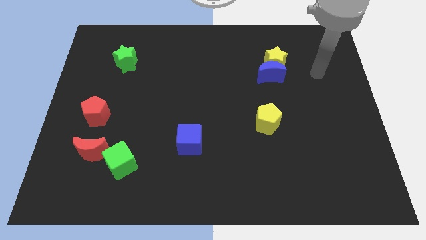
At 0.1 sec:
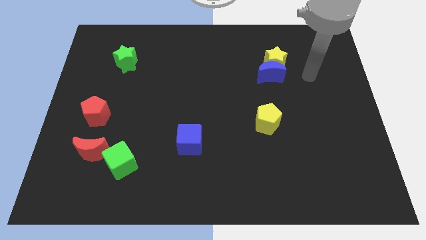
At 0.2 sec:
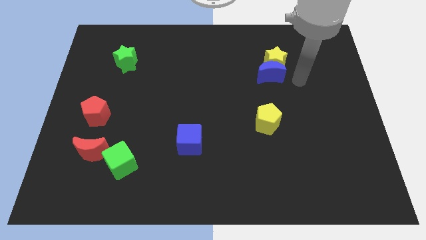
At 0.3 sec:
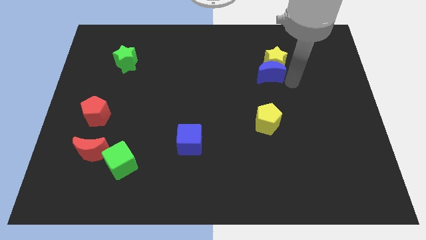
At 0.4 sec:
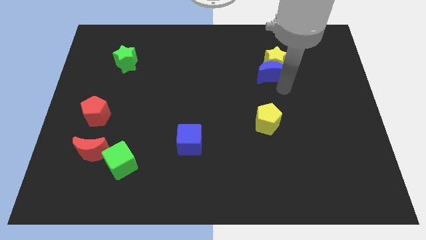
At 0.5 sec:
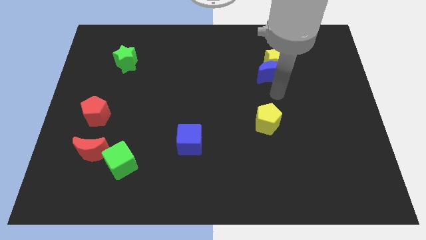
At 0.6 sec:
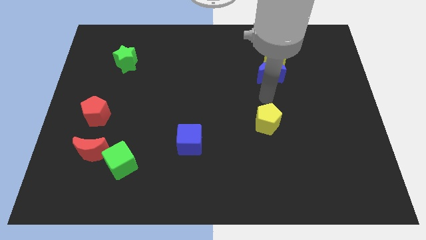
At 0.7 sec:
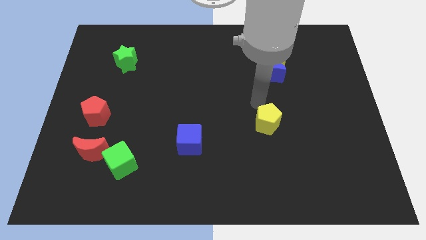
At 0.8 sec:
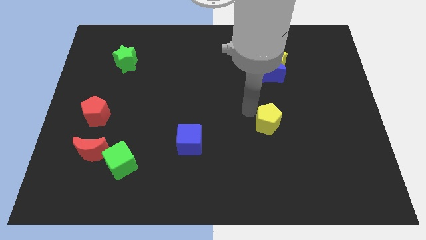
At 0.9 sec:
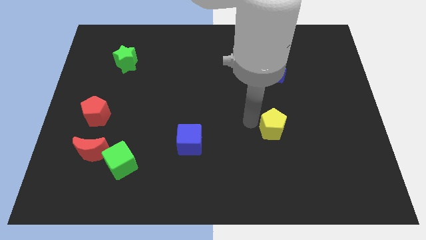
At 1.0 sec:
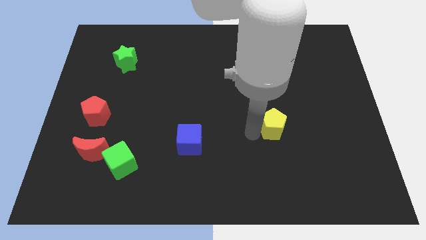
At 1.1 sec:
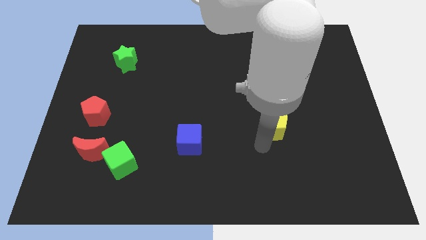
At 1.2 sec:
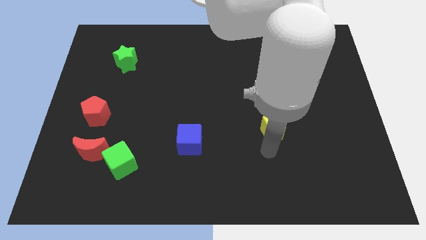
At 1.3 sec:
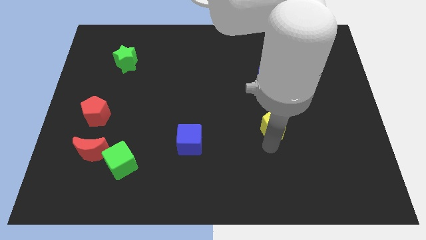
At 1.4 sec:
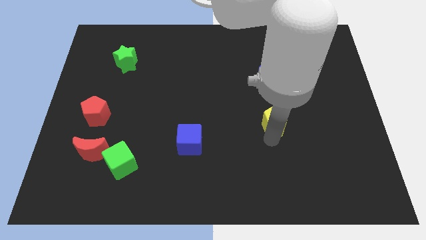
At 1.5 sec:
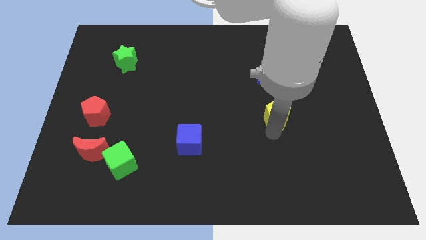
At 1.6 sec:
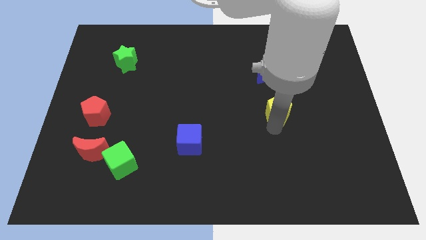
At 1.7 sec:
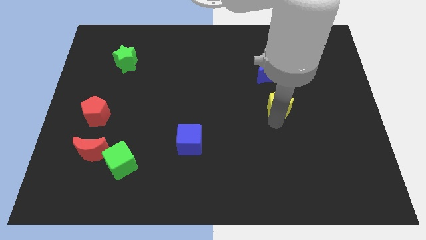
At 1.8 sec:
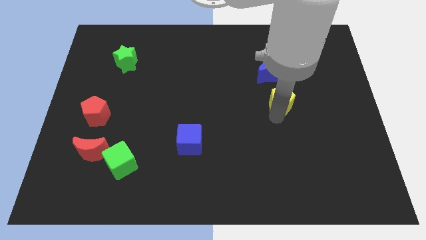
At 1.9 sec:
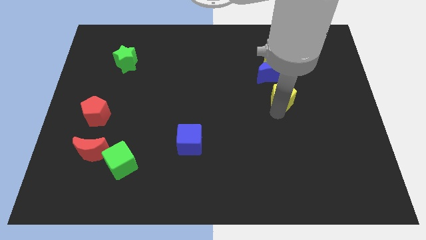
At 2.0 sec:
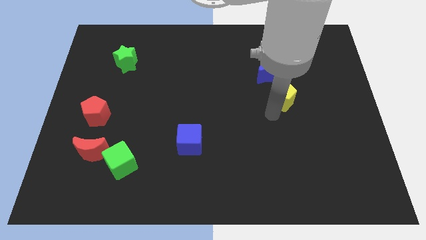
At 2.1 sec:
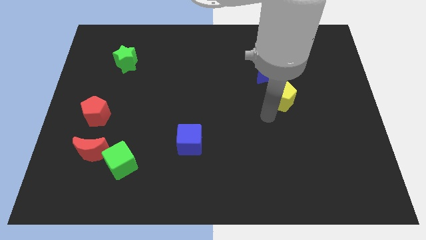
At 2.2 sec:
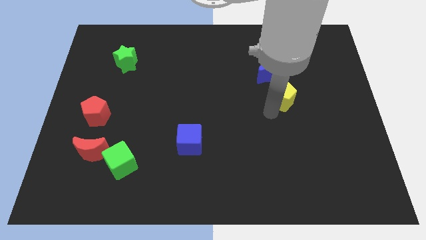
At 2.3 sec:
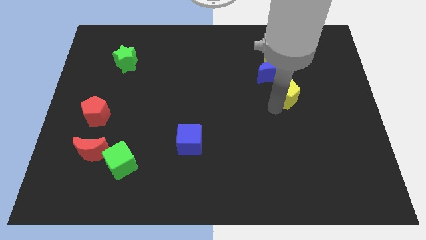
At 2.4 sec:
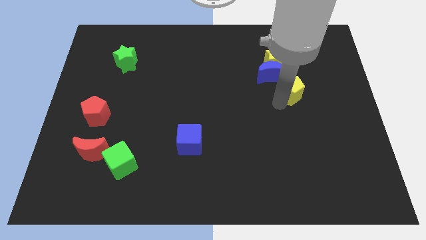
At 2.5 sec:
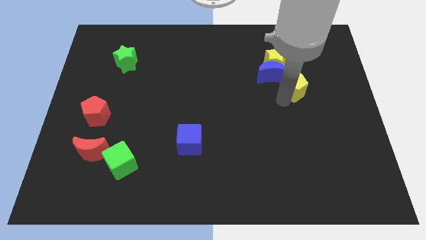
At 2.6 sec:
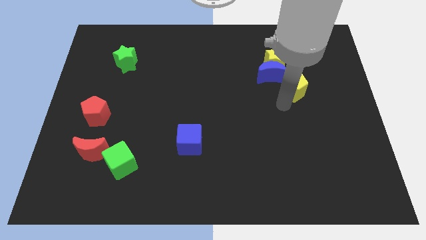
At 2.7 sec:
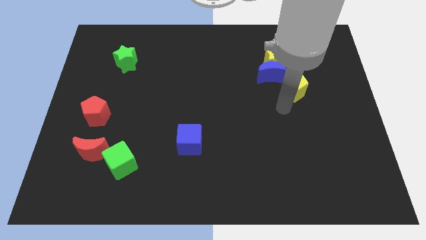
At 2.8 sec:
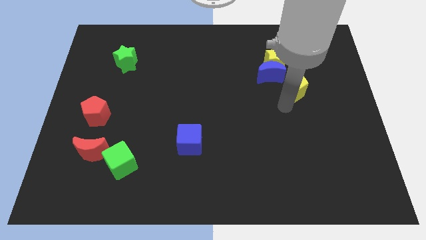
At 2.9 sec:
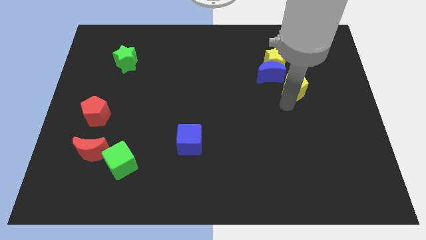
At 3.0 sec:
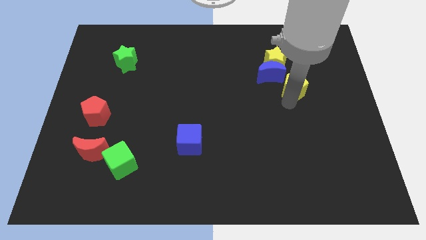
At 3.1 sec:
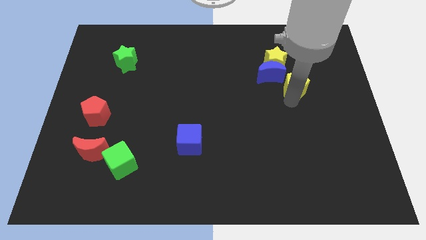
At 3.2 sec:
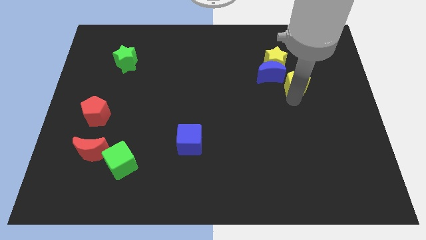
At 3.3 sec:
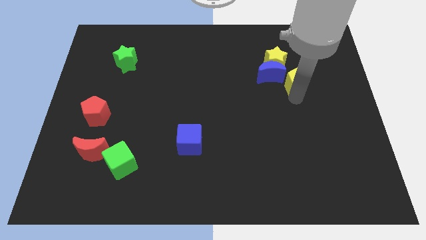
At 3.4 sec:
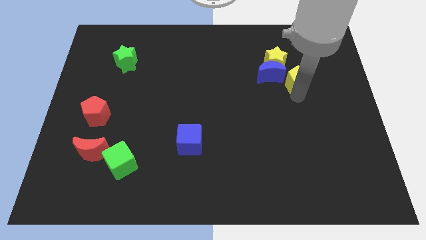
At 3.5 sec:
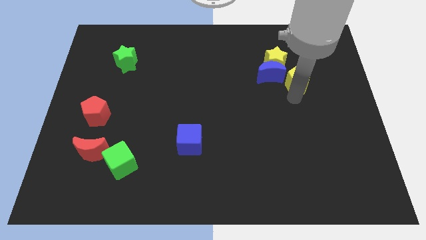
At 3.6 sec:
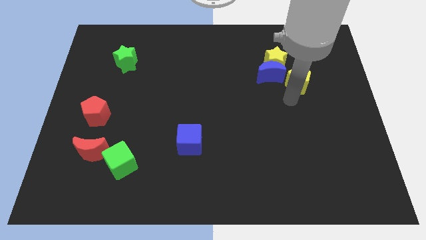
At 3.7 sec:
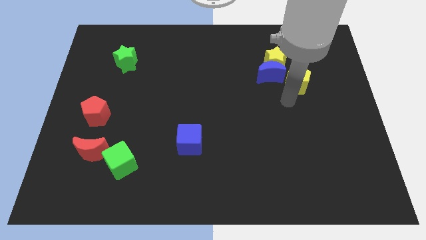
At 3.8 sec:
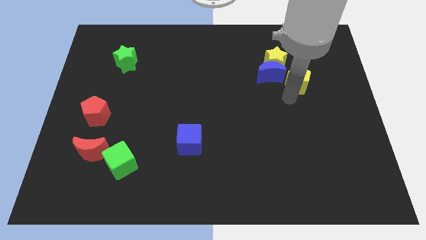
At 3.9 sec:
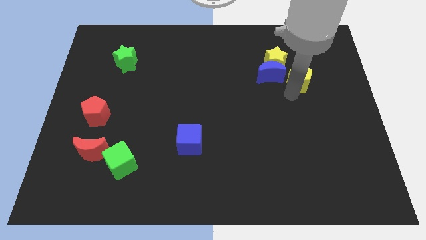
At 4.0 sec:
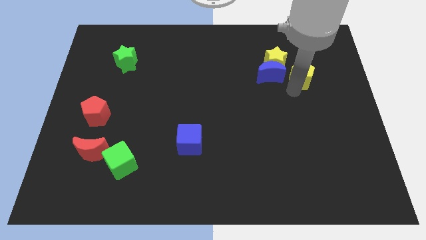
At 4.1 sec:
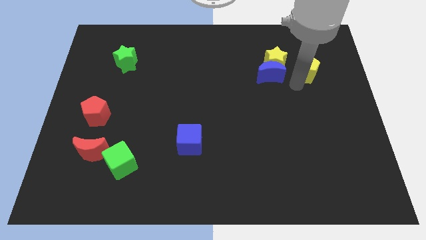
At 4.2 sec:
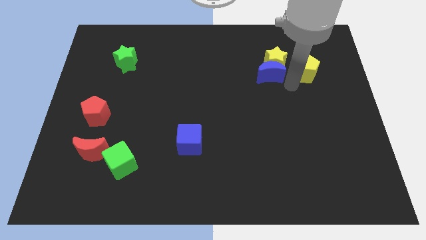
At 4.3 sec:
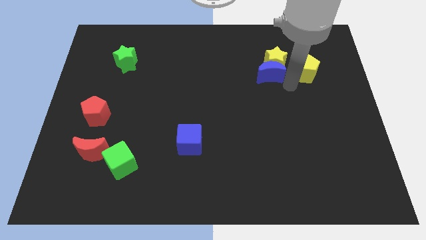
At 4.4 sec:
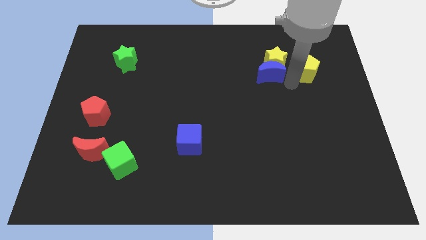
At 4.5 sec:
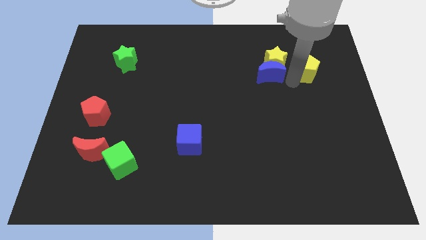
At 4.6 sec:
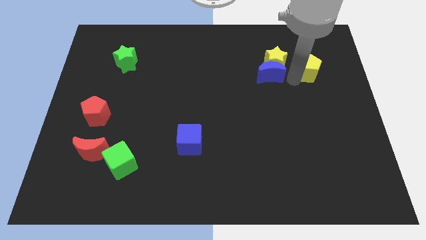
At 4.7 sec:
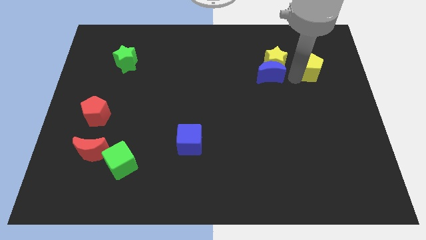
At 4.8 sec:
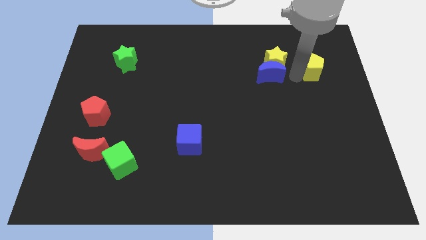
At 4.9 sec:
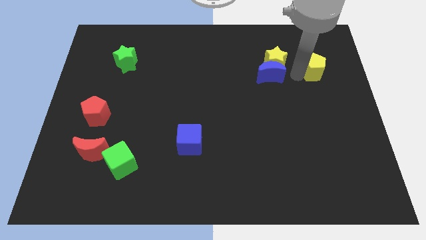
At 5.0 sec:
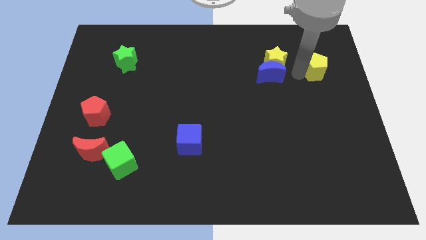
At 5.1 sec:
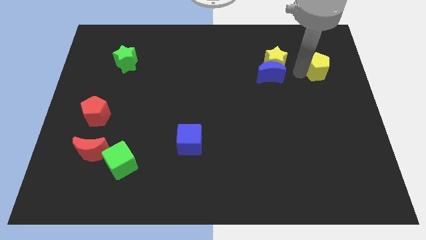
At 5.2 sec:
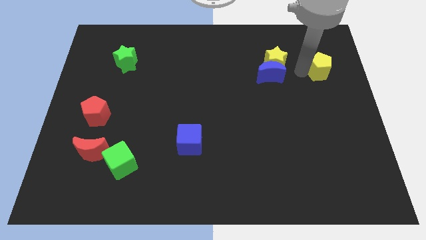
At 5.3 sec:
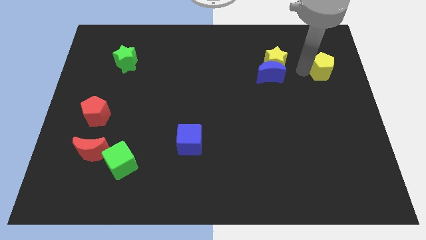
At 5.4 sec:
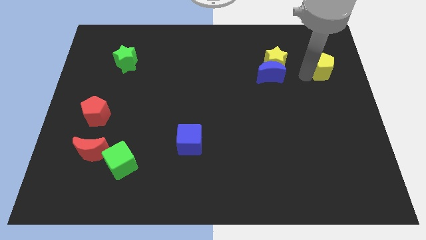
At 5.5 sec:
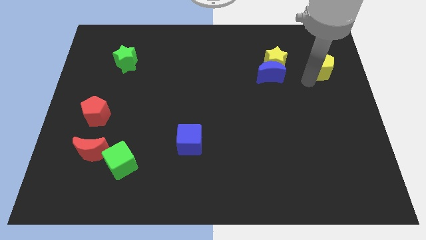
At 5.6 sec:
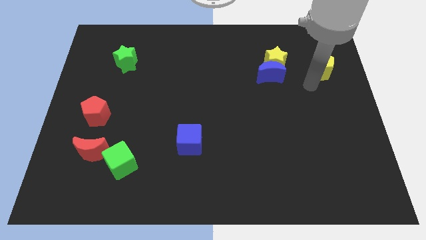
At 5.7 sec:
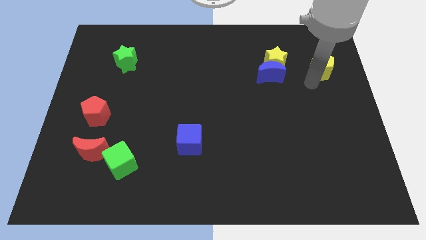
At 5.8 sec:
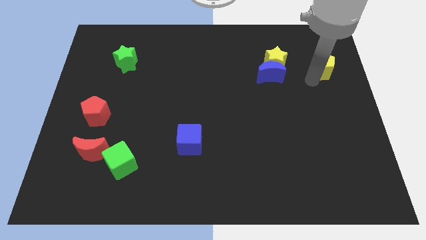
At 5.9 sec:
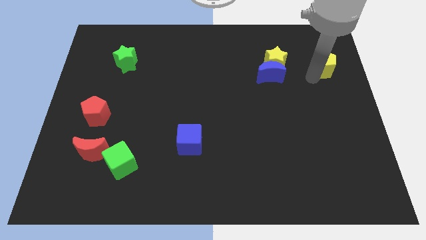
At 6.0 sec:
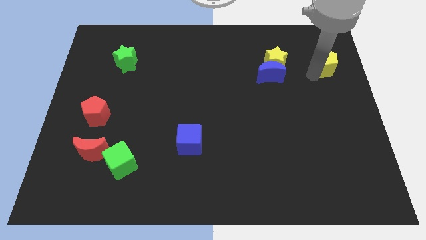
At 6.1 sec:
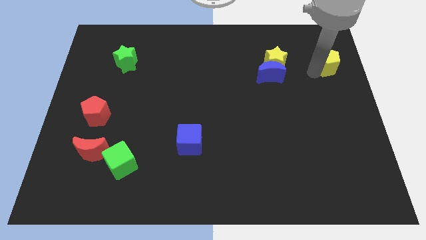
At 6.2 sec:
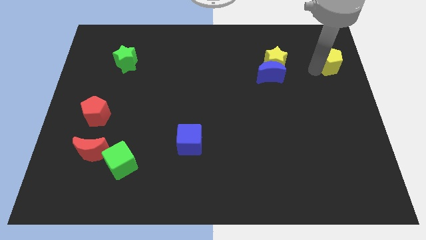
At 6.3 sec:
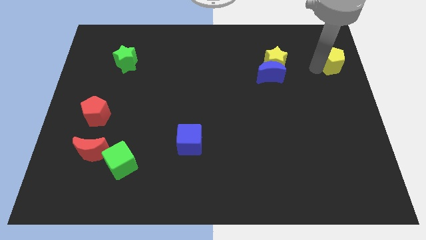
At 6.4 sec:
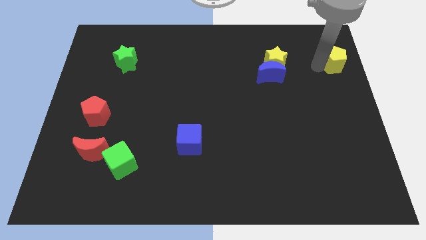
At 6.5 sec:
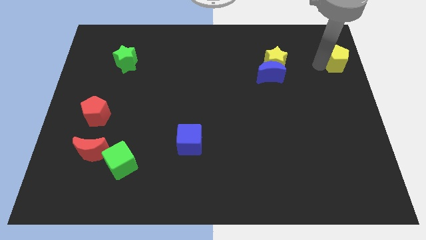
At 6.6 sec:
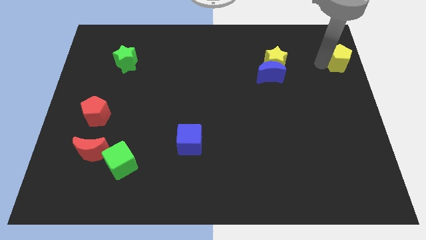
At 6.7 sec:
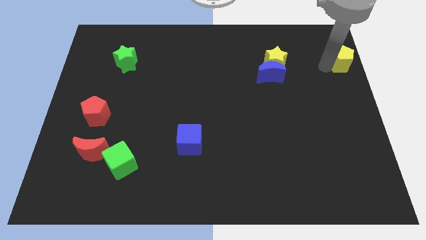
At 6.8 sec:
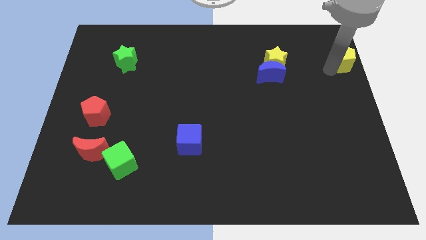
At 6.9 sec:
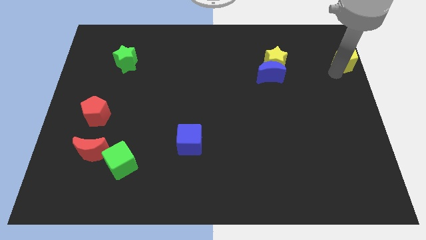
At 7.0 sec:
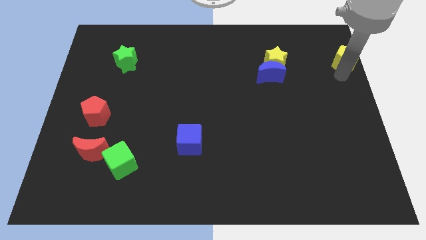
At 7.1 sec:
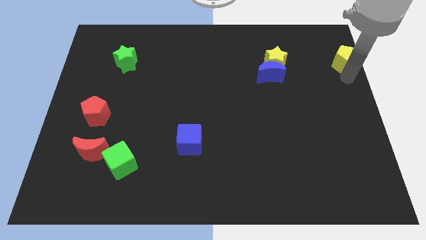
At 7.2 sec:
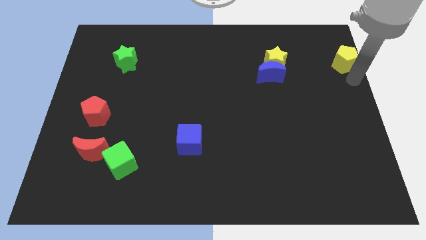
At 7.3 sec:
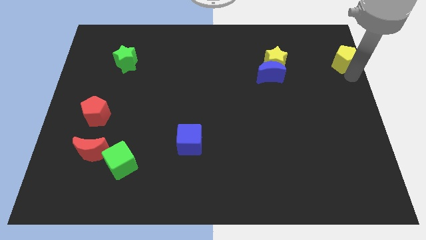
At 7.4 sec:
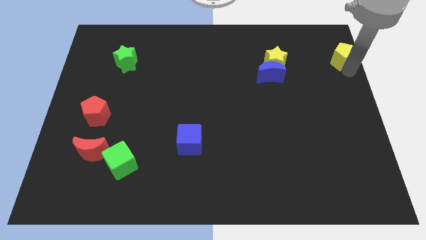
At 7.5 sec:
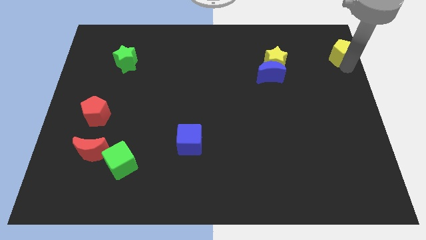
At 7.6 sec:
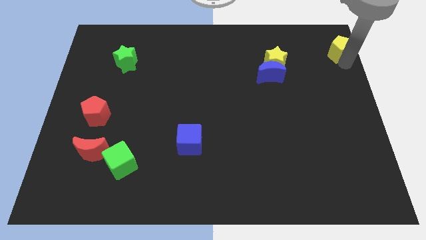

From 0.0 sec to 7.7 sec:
slide the yellow pentagon to the upper right corner
